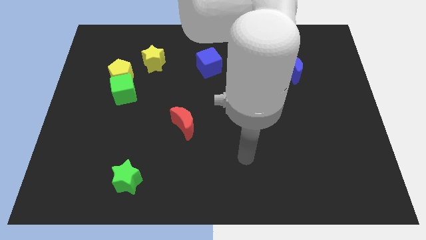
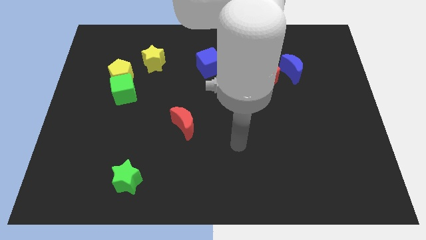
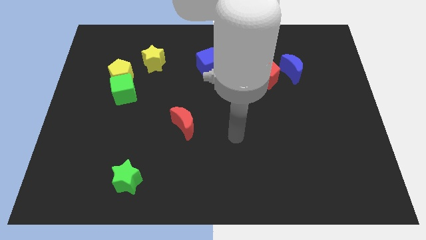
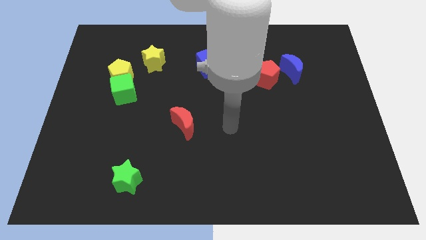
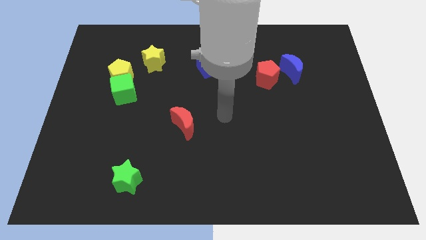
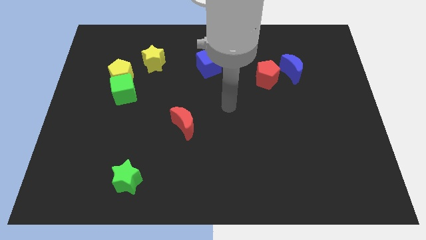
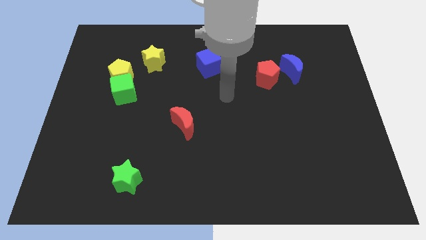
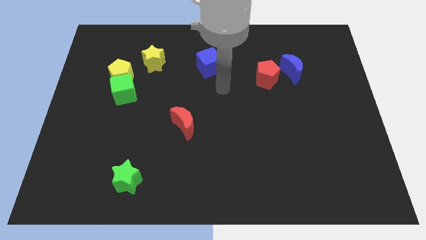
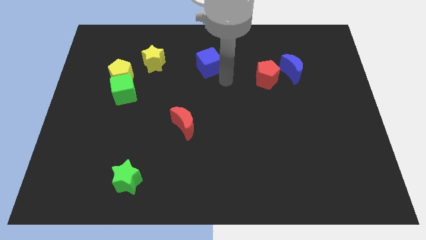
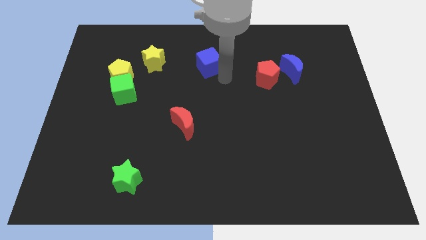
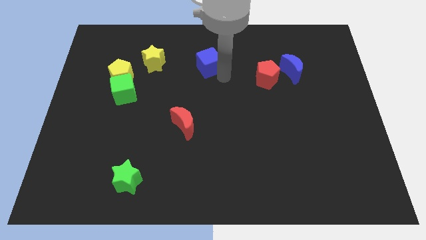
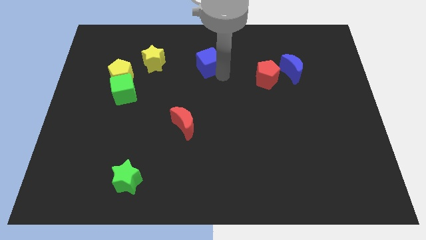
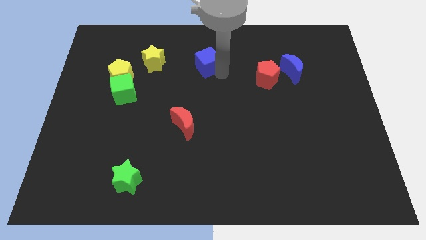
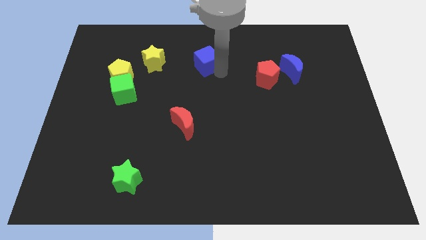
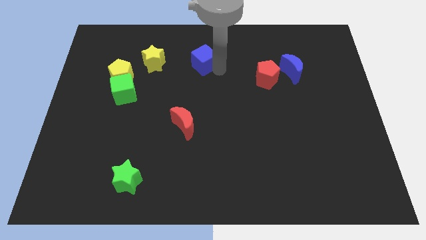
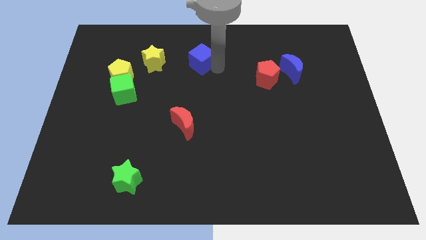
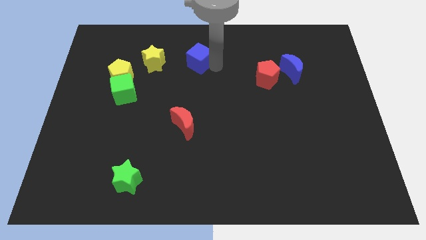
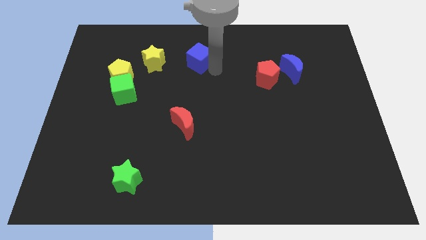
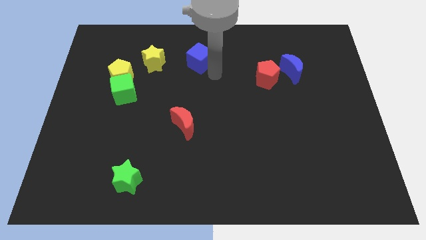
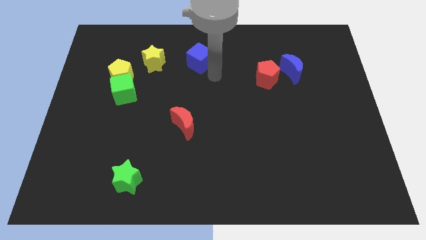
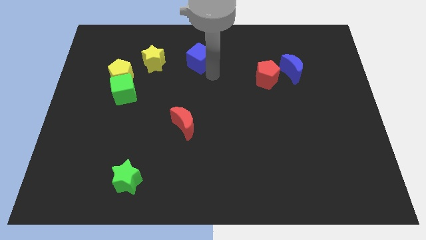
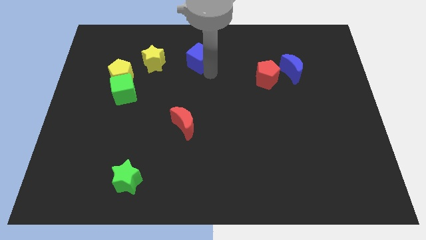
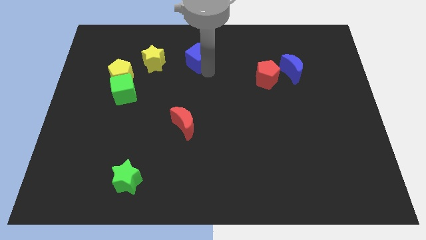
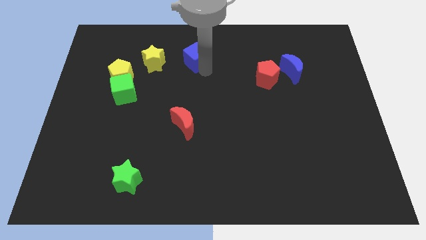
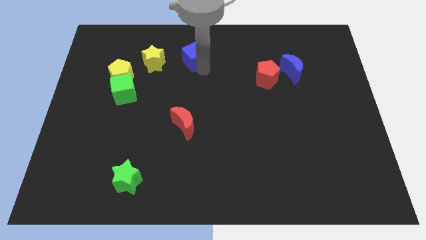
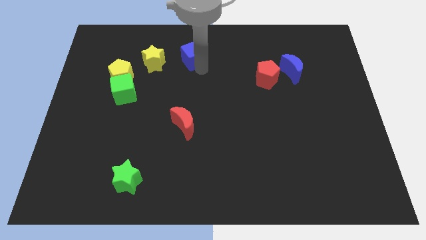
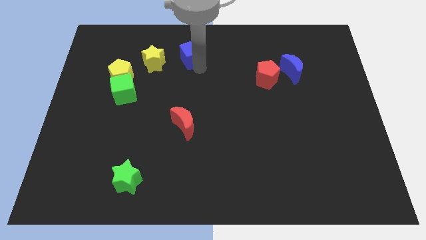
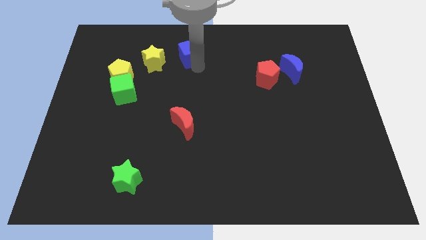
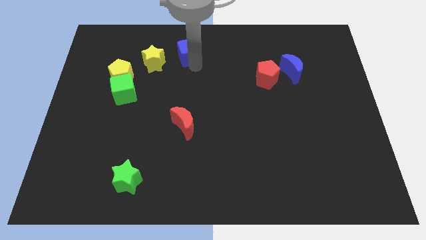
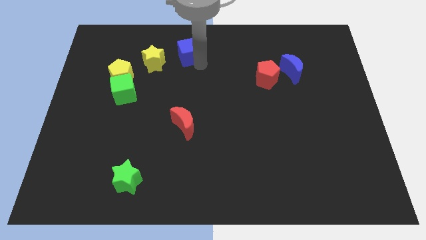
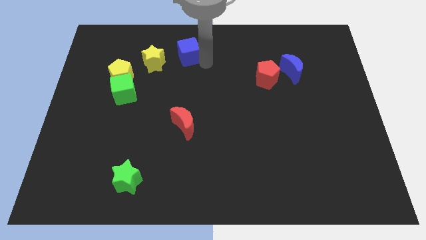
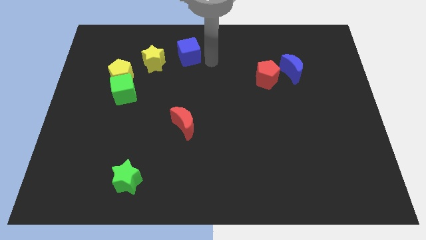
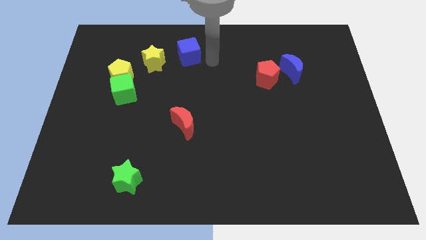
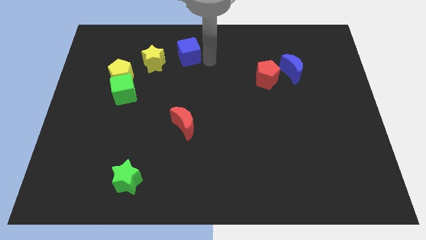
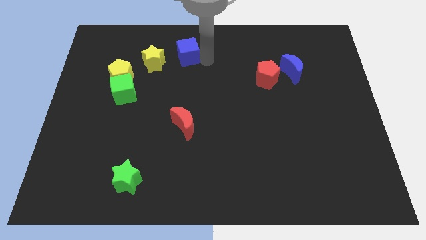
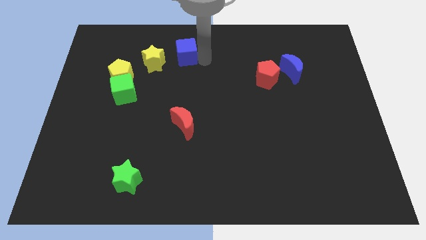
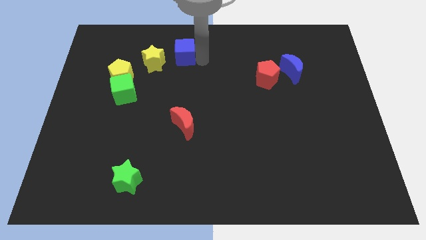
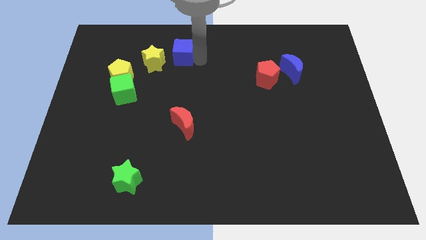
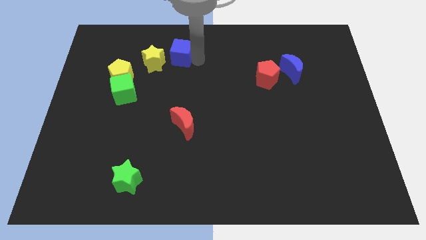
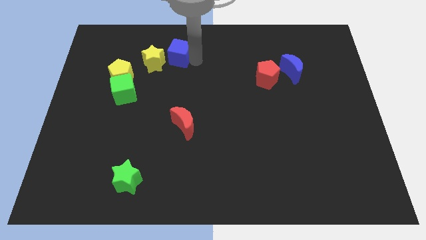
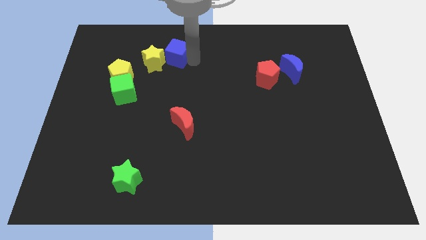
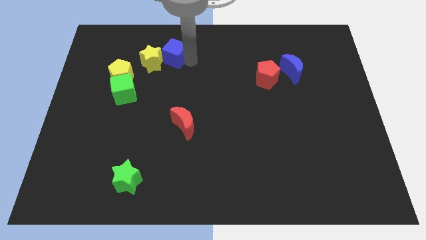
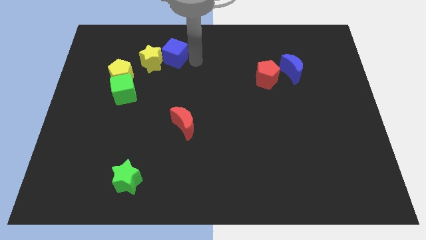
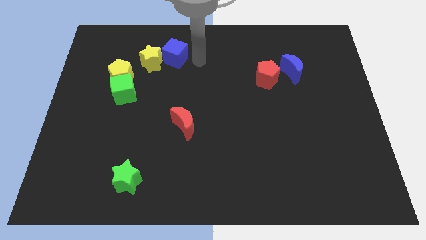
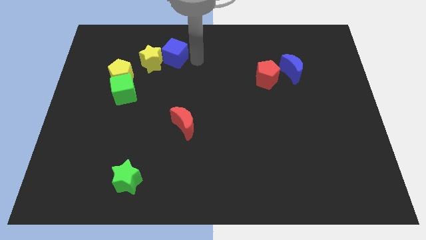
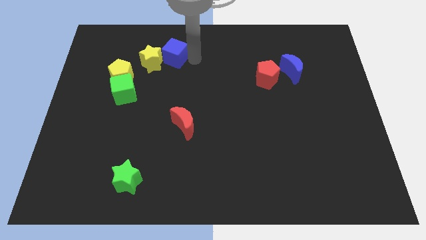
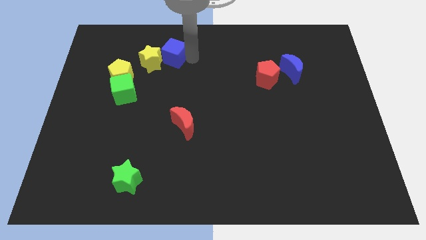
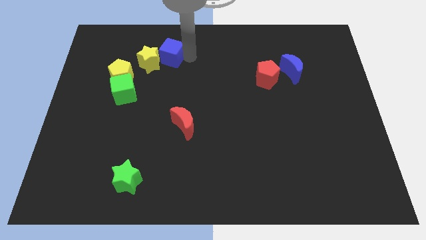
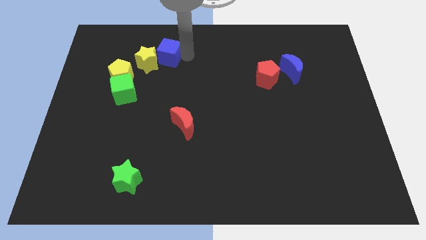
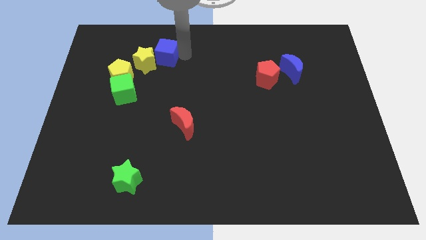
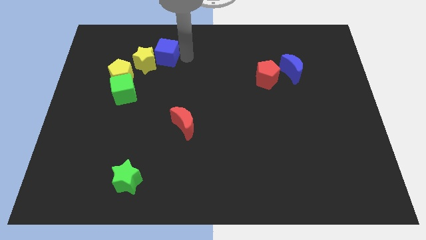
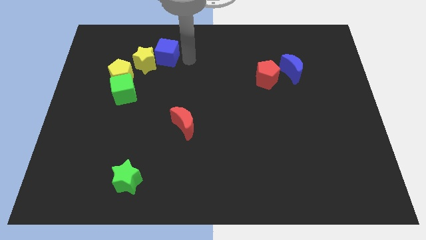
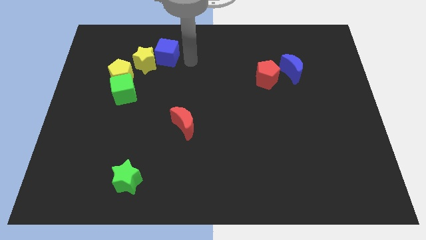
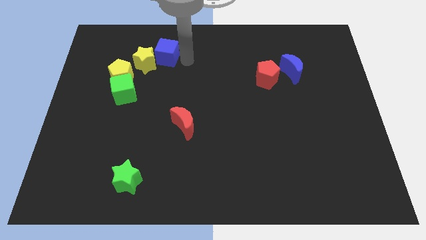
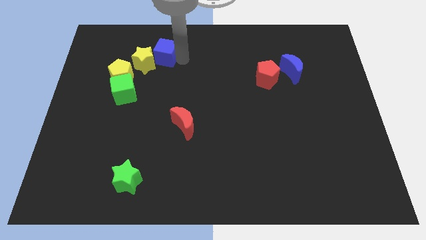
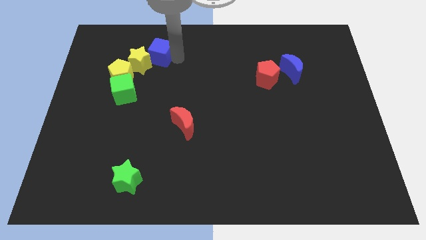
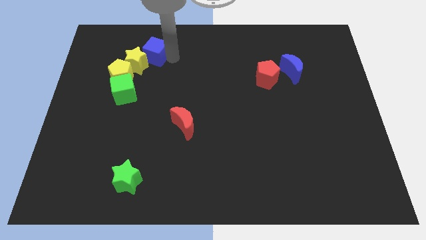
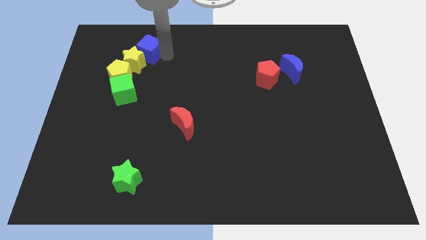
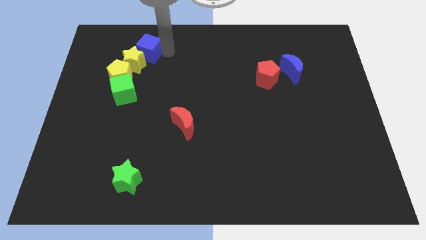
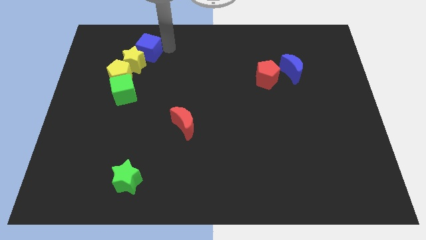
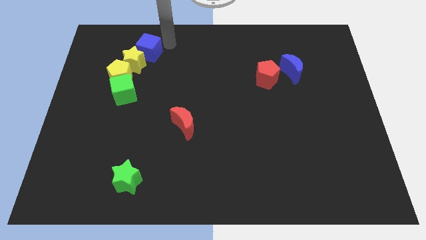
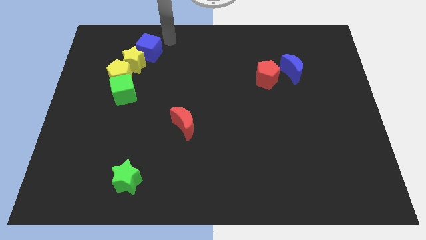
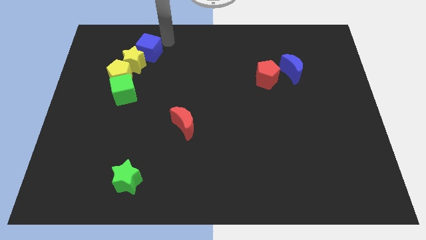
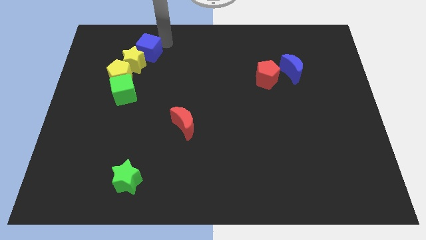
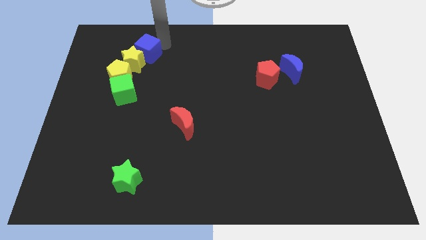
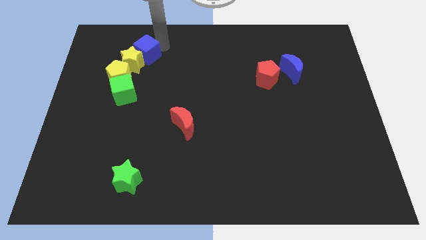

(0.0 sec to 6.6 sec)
push the blue cube to the top side of the green cube
